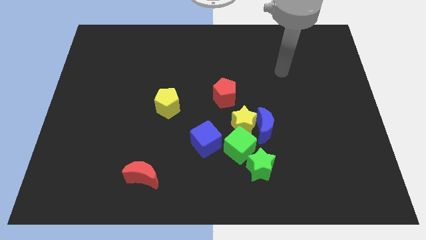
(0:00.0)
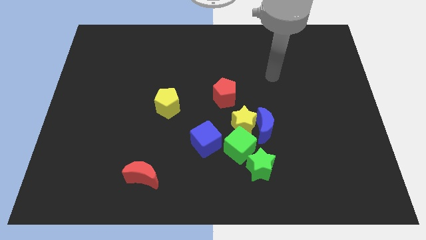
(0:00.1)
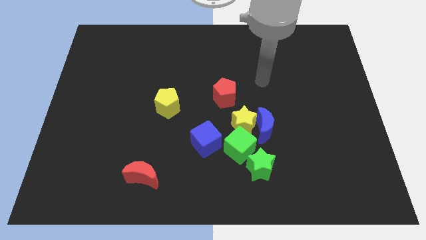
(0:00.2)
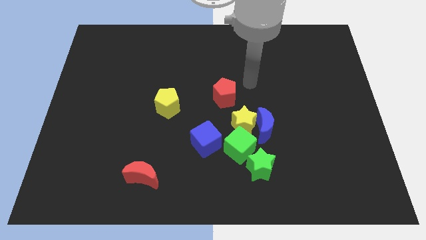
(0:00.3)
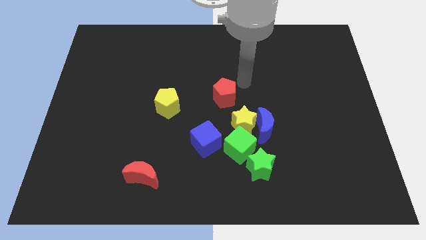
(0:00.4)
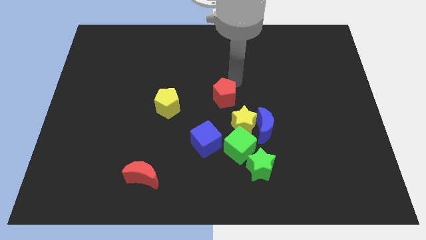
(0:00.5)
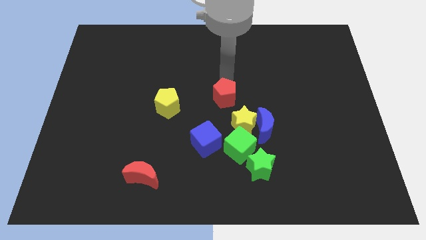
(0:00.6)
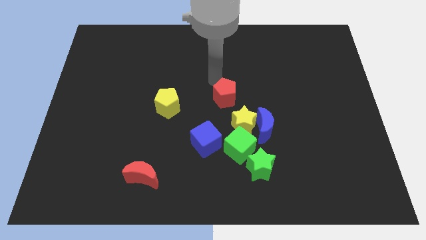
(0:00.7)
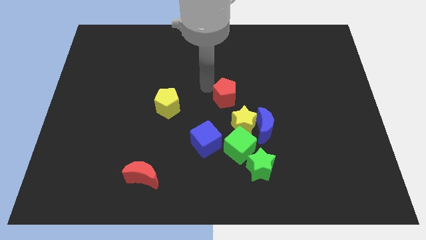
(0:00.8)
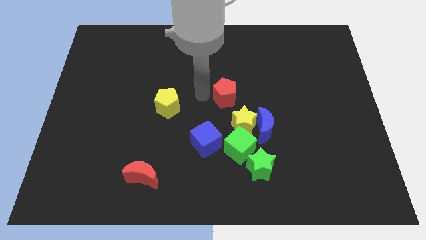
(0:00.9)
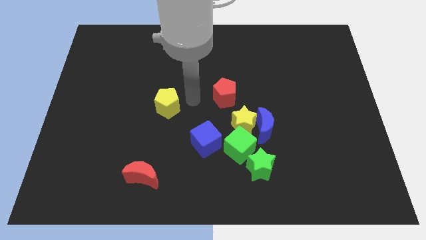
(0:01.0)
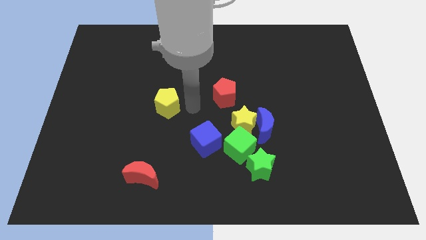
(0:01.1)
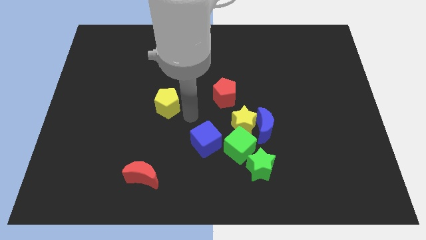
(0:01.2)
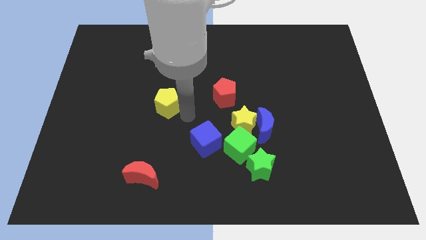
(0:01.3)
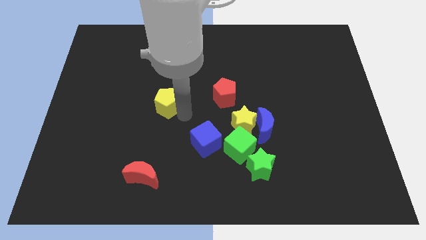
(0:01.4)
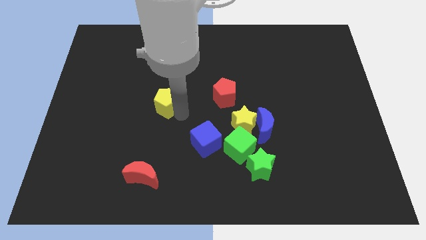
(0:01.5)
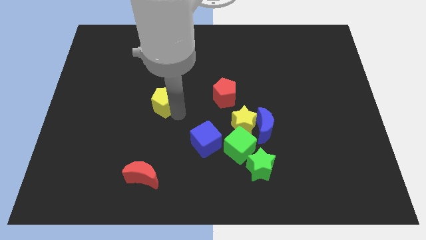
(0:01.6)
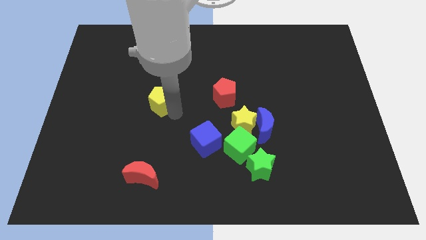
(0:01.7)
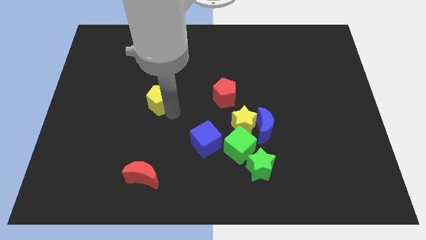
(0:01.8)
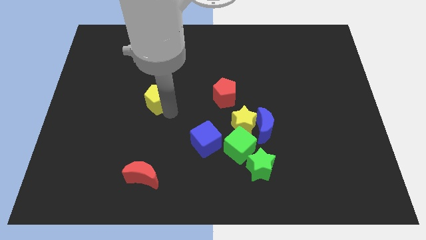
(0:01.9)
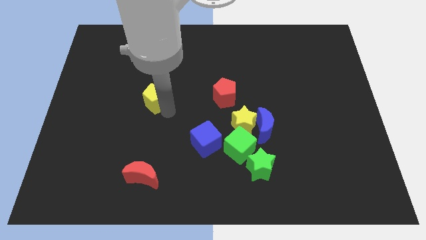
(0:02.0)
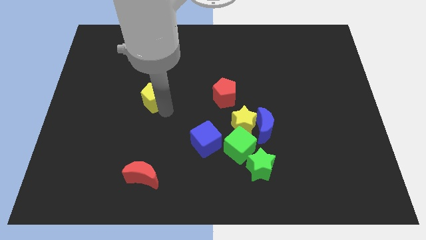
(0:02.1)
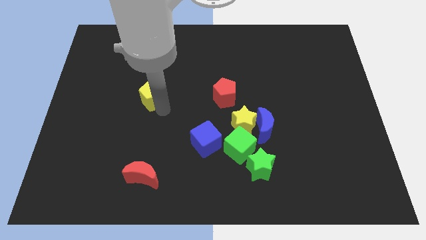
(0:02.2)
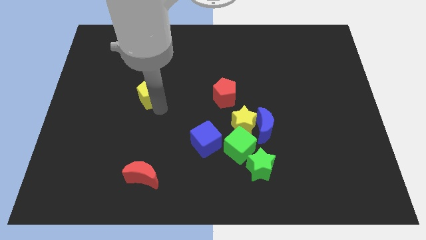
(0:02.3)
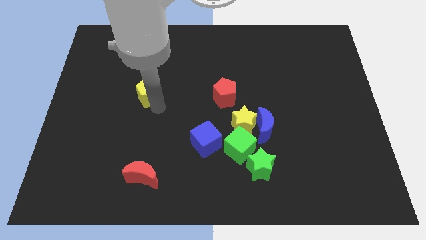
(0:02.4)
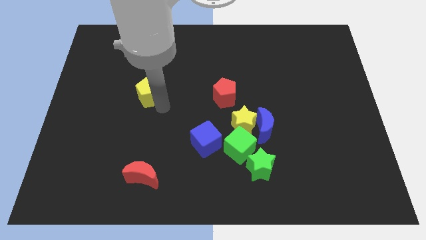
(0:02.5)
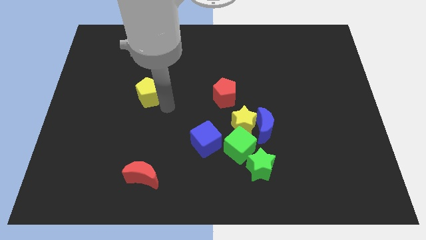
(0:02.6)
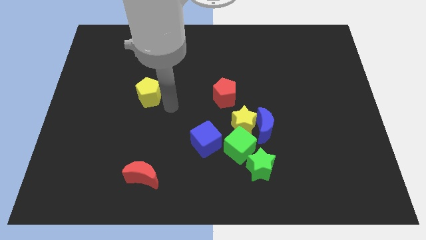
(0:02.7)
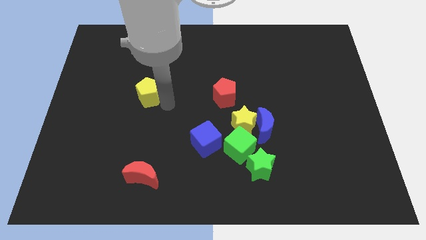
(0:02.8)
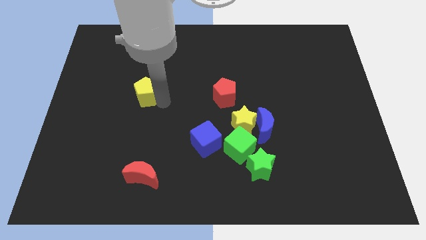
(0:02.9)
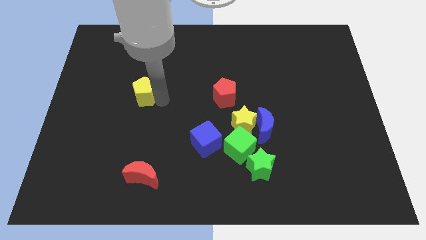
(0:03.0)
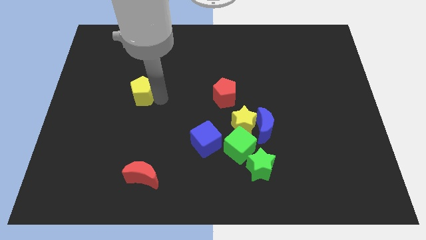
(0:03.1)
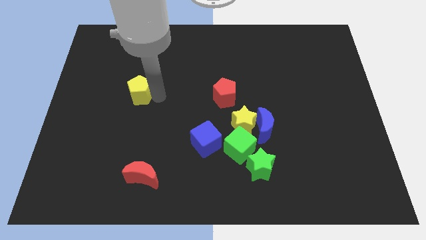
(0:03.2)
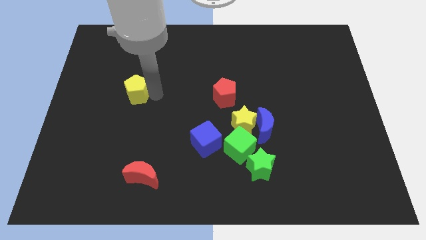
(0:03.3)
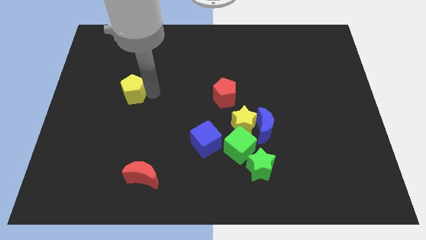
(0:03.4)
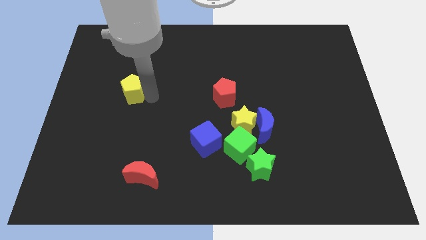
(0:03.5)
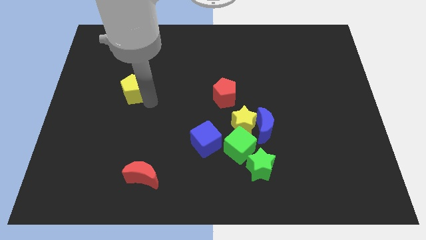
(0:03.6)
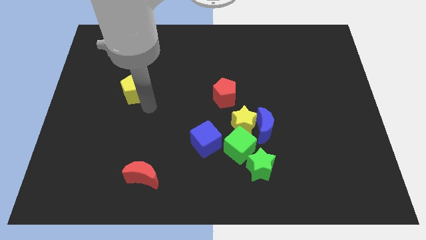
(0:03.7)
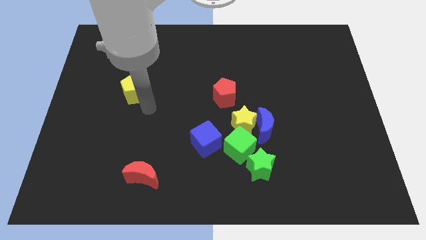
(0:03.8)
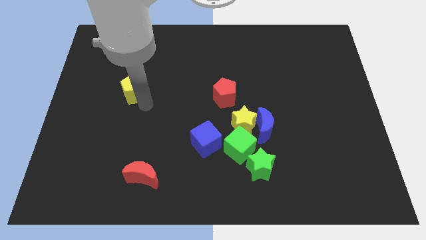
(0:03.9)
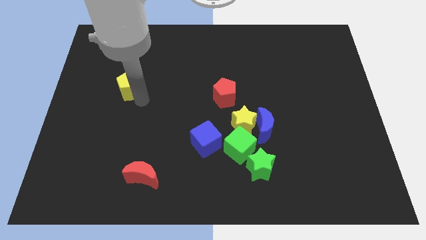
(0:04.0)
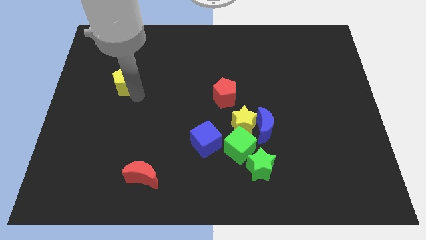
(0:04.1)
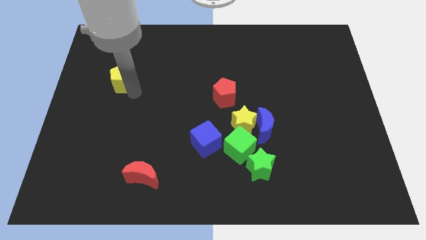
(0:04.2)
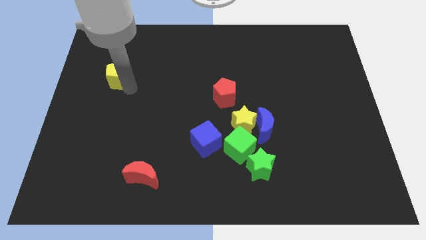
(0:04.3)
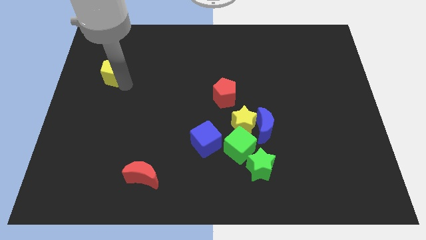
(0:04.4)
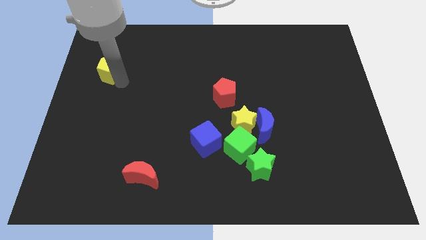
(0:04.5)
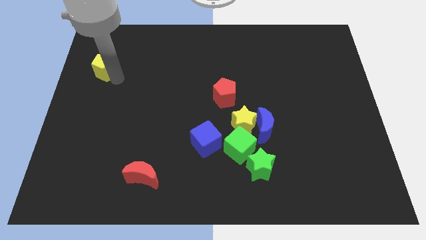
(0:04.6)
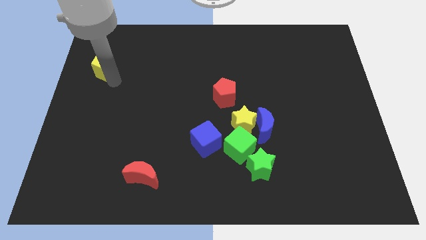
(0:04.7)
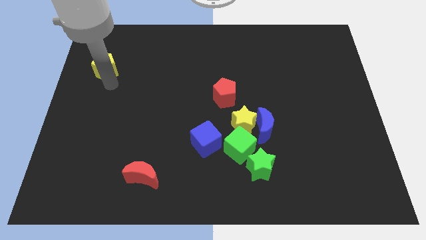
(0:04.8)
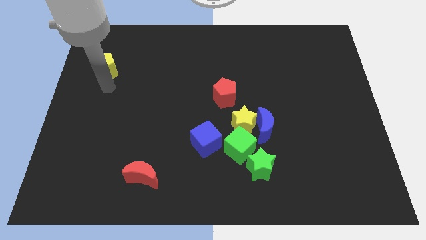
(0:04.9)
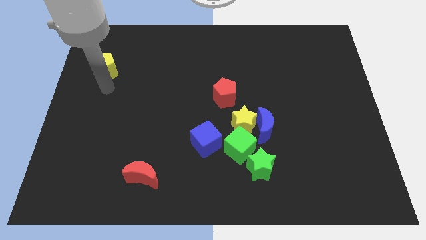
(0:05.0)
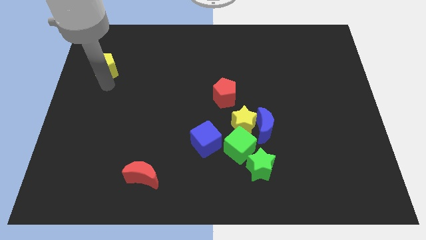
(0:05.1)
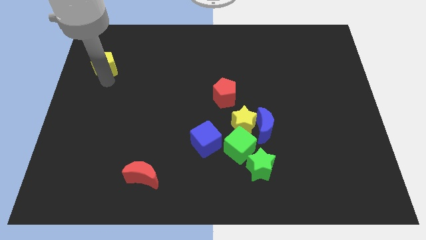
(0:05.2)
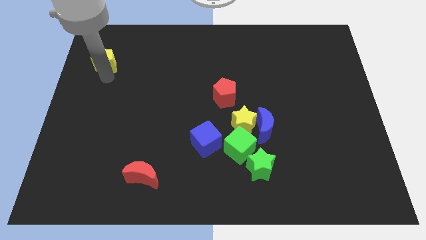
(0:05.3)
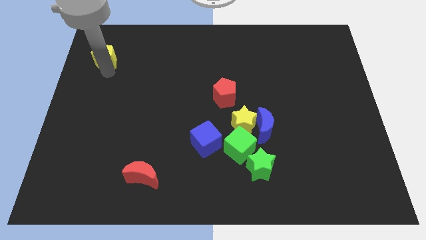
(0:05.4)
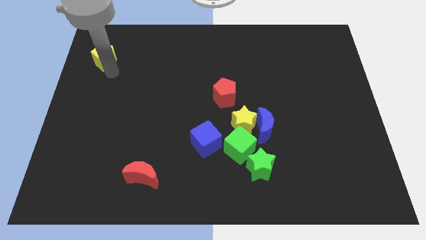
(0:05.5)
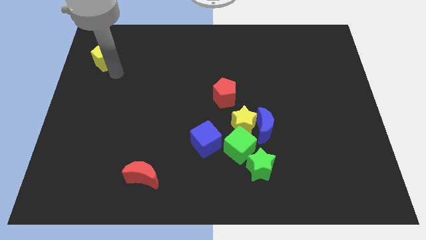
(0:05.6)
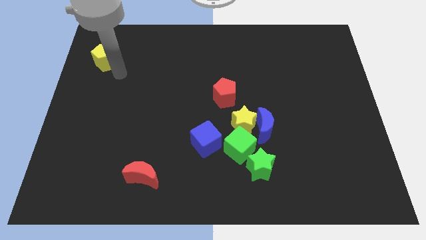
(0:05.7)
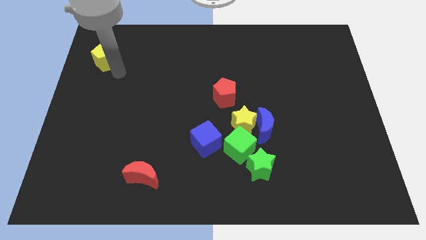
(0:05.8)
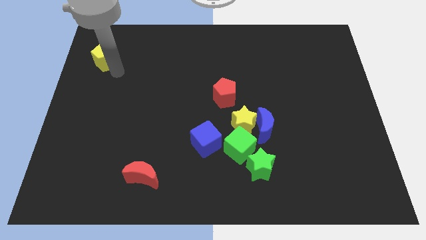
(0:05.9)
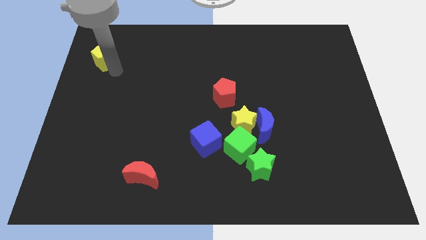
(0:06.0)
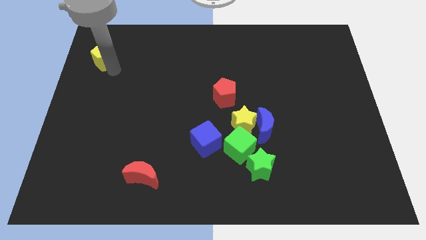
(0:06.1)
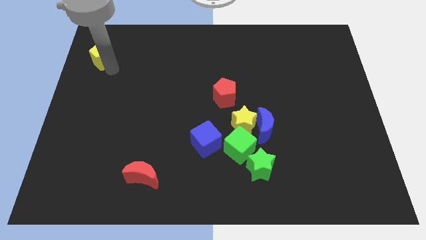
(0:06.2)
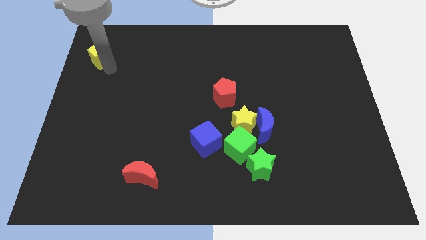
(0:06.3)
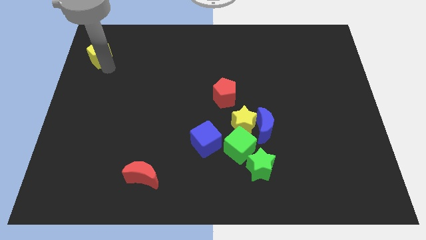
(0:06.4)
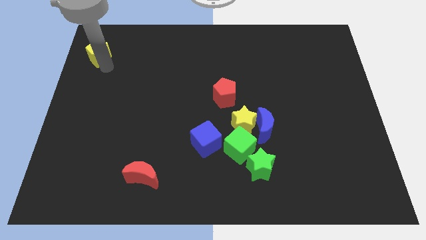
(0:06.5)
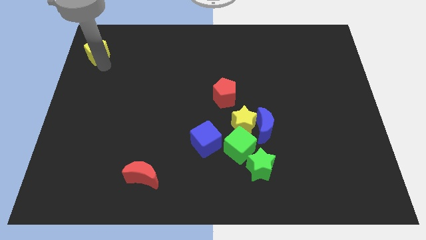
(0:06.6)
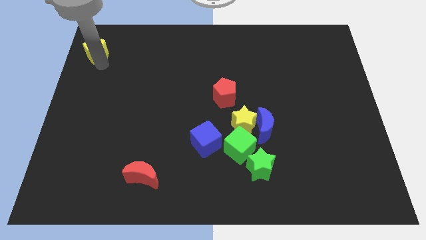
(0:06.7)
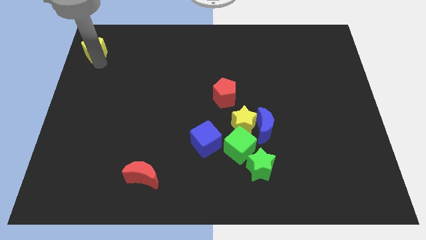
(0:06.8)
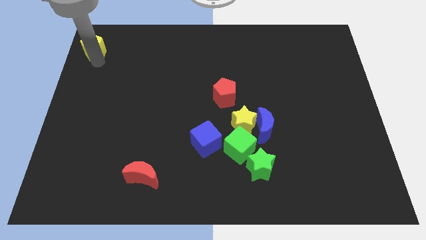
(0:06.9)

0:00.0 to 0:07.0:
push the yellow pentagon to the upper left corner
